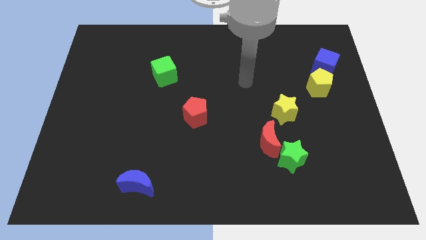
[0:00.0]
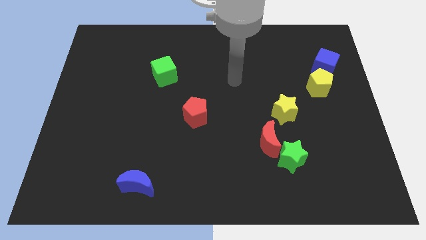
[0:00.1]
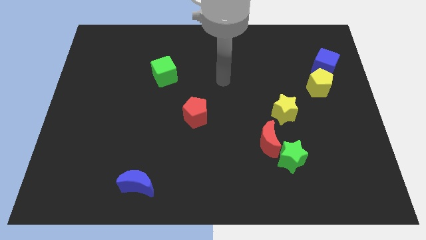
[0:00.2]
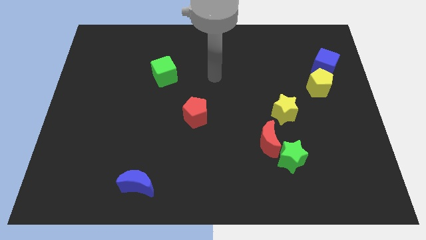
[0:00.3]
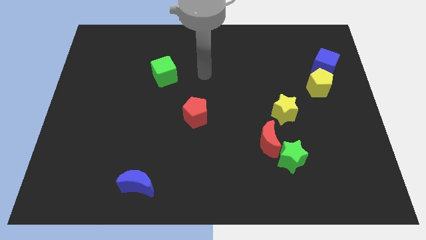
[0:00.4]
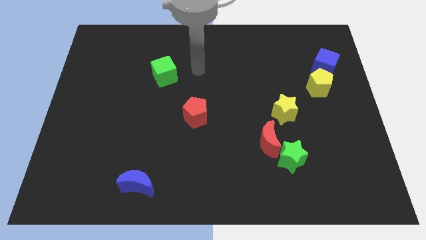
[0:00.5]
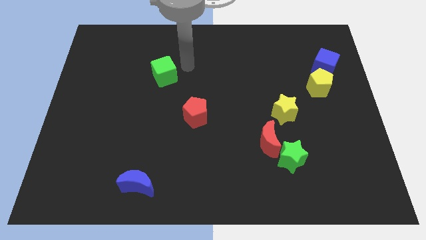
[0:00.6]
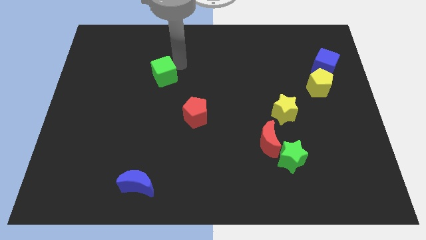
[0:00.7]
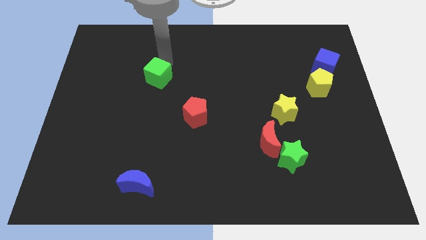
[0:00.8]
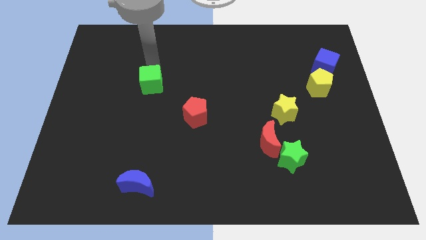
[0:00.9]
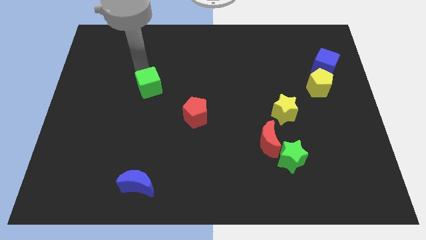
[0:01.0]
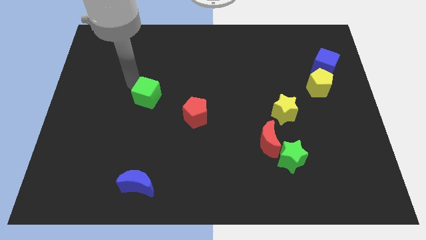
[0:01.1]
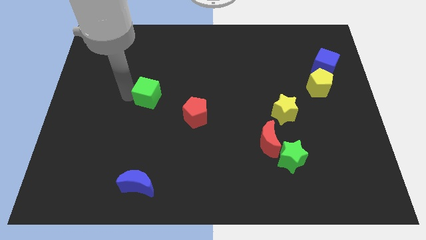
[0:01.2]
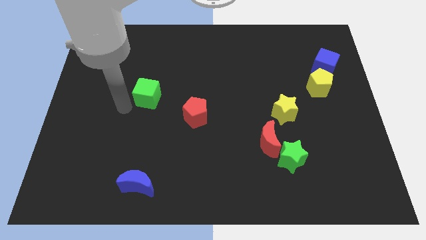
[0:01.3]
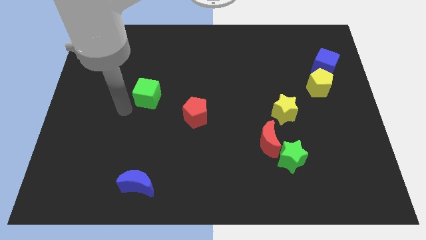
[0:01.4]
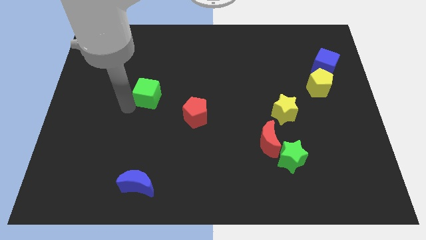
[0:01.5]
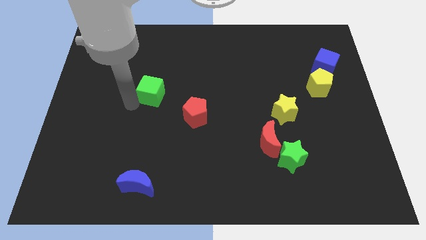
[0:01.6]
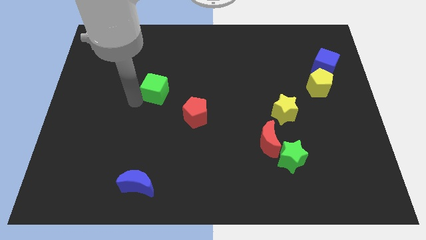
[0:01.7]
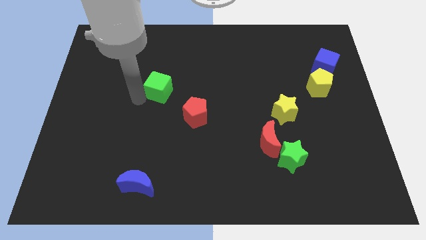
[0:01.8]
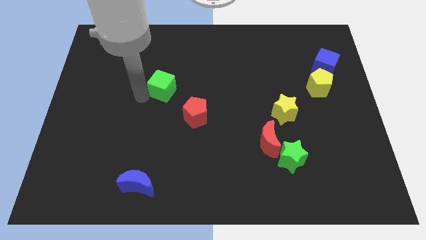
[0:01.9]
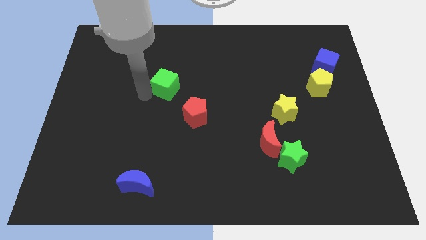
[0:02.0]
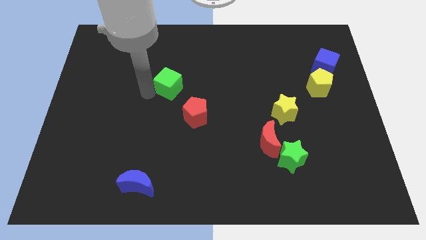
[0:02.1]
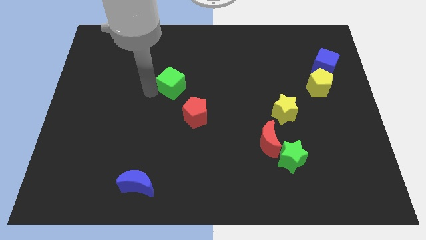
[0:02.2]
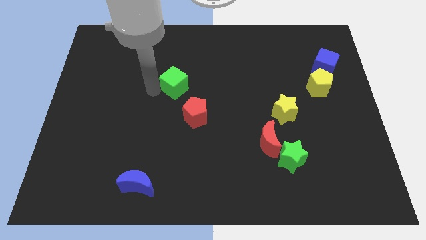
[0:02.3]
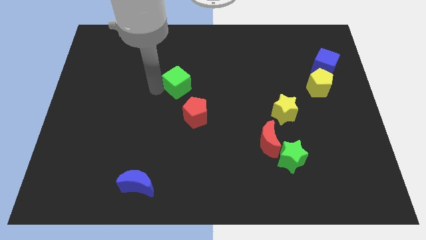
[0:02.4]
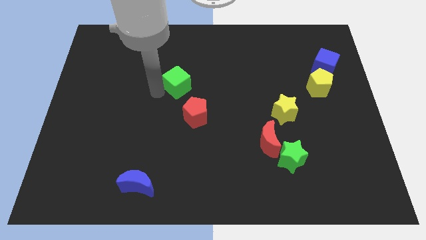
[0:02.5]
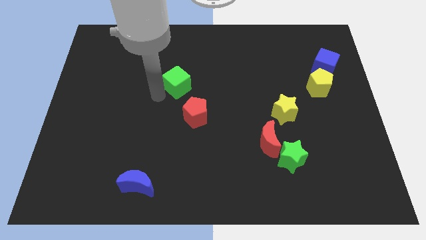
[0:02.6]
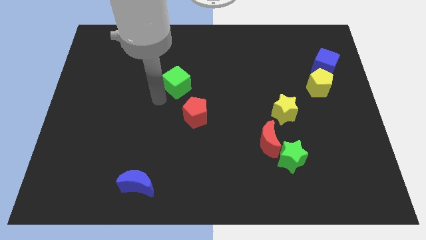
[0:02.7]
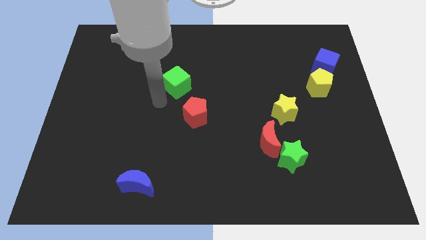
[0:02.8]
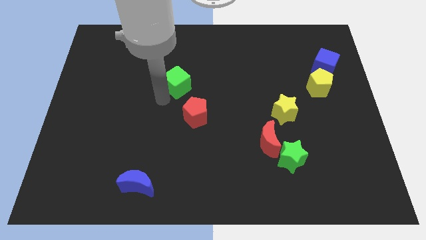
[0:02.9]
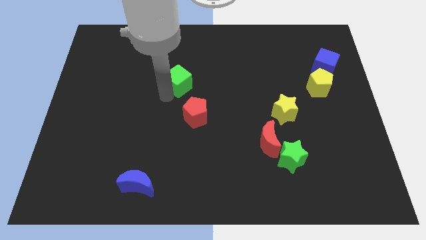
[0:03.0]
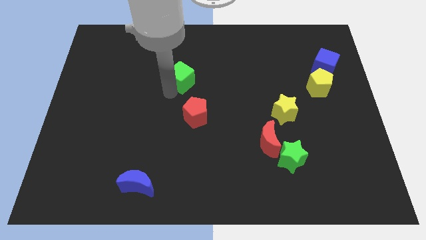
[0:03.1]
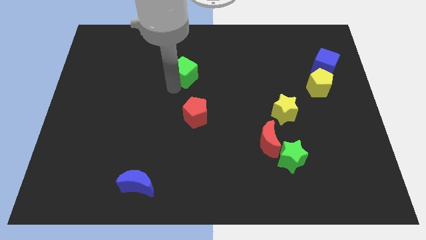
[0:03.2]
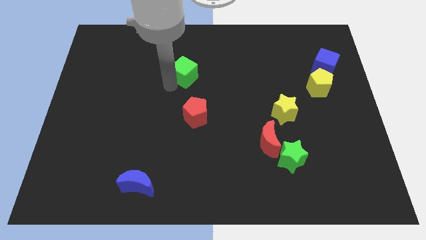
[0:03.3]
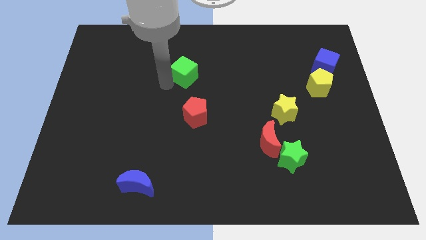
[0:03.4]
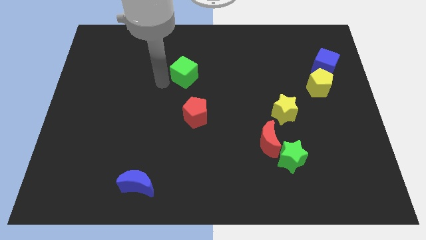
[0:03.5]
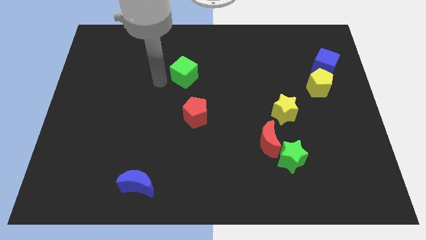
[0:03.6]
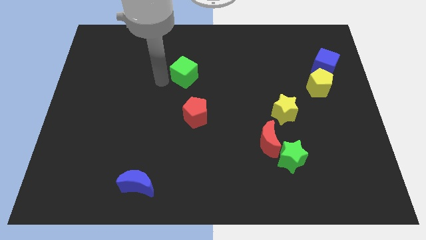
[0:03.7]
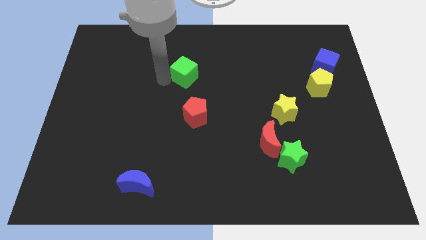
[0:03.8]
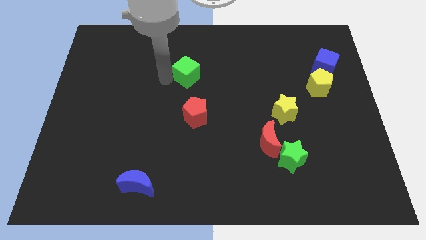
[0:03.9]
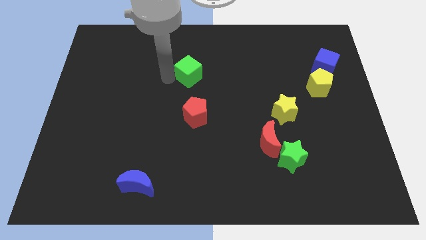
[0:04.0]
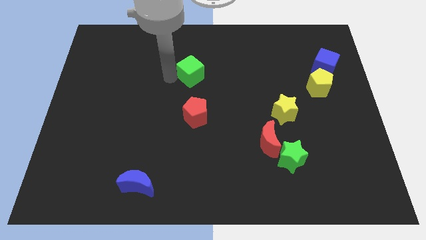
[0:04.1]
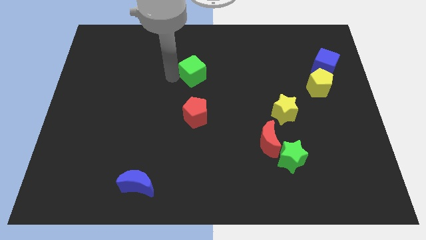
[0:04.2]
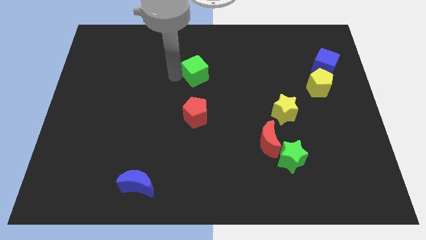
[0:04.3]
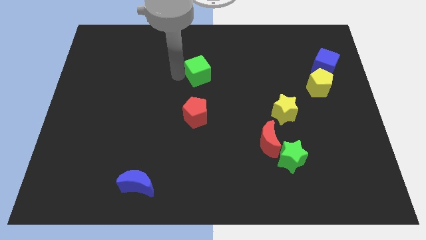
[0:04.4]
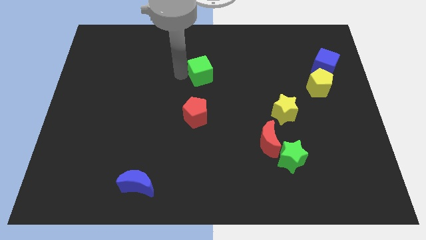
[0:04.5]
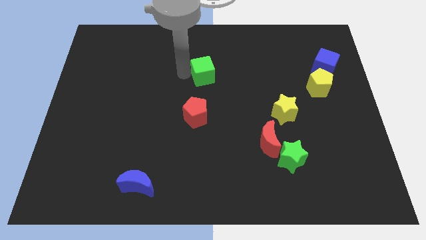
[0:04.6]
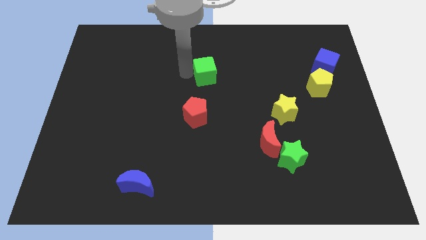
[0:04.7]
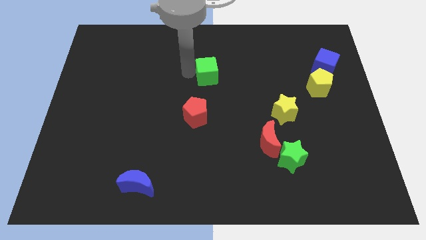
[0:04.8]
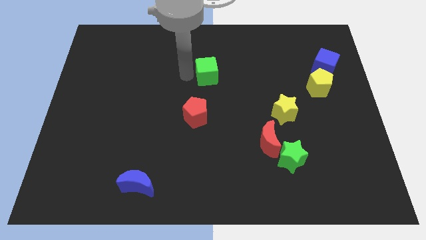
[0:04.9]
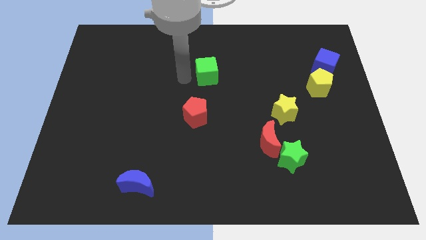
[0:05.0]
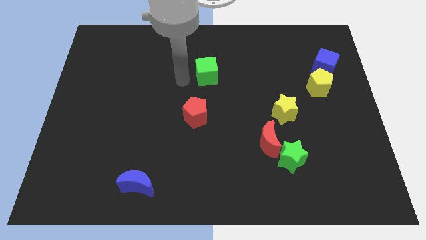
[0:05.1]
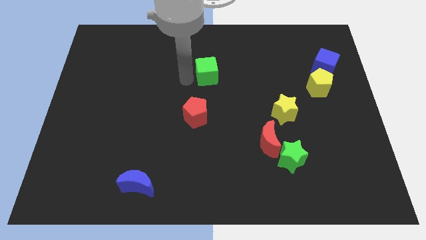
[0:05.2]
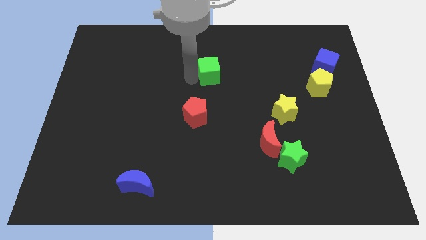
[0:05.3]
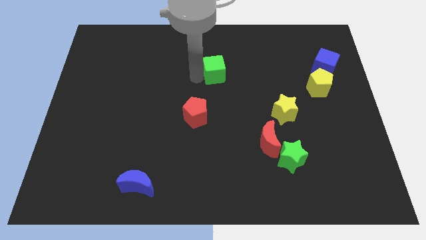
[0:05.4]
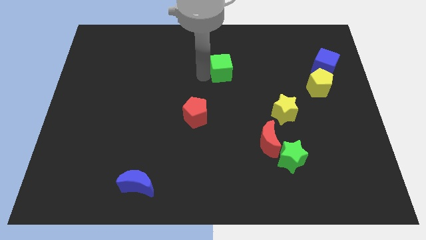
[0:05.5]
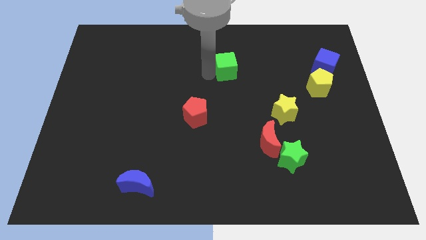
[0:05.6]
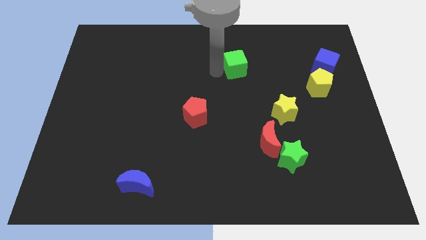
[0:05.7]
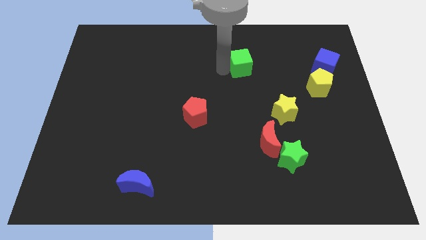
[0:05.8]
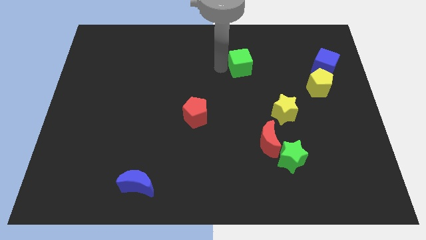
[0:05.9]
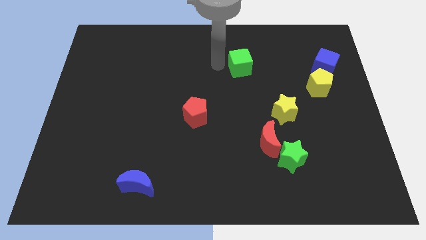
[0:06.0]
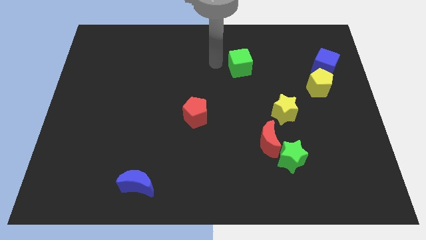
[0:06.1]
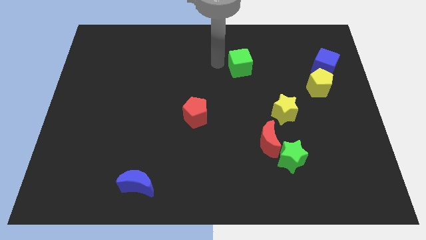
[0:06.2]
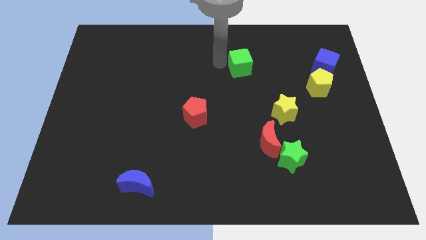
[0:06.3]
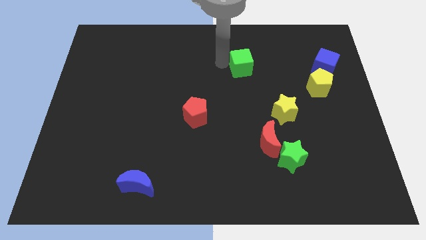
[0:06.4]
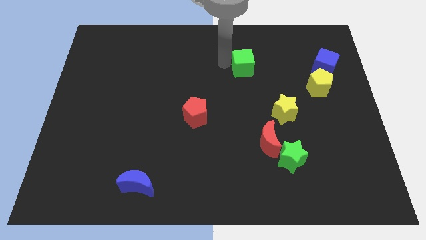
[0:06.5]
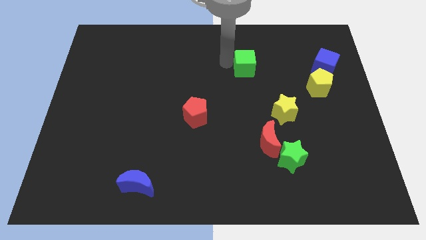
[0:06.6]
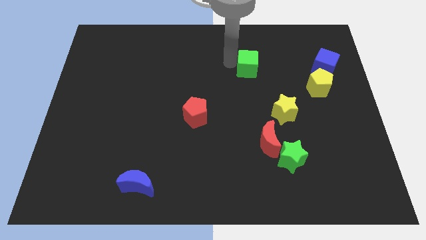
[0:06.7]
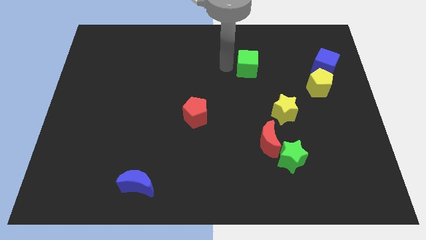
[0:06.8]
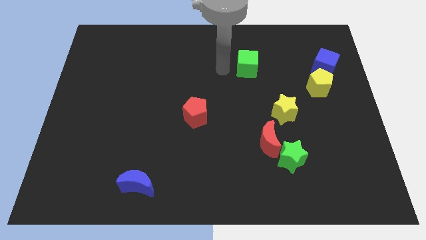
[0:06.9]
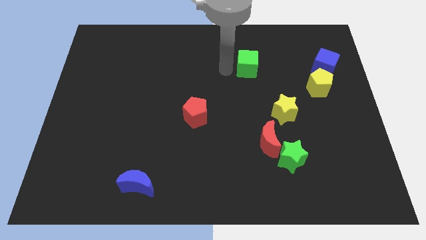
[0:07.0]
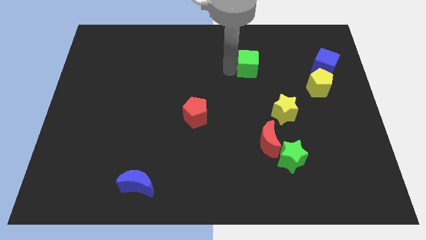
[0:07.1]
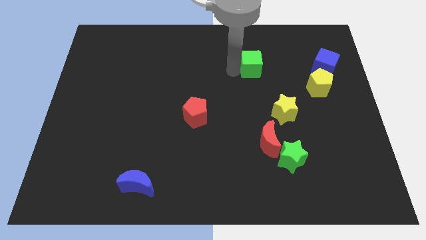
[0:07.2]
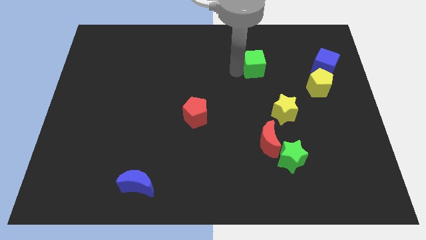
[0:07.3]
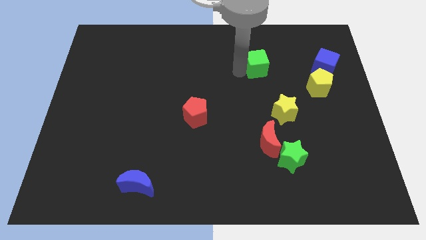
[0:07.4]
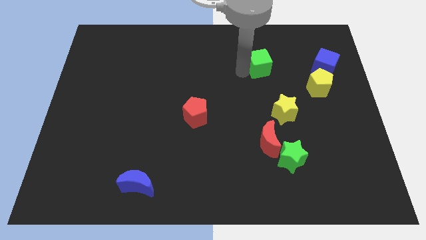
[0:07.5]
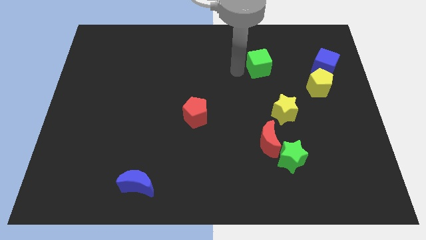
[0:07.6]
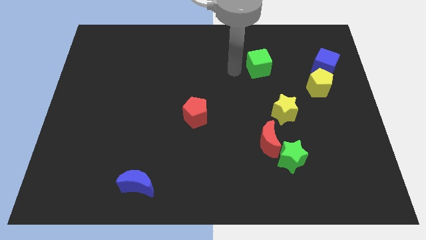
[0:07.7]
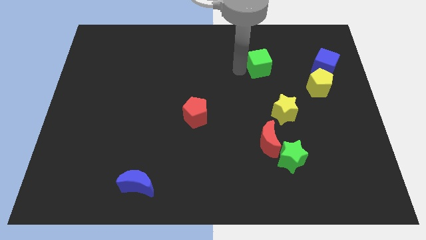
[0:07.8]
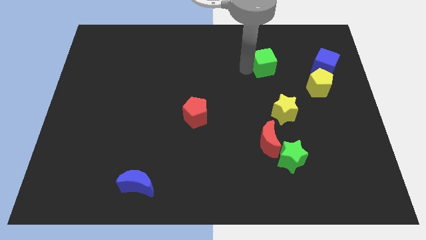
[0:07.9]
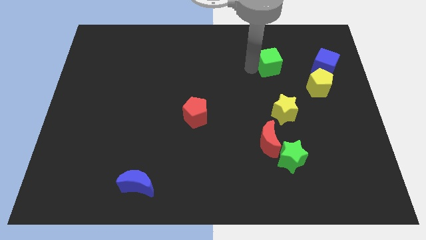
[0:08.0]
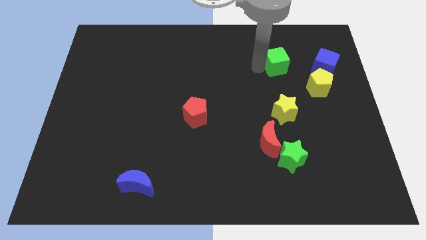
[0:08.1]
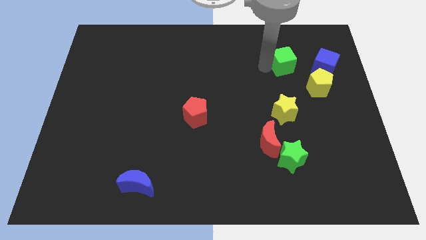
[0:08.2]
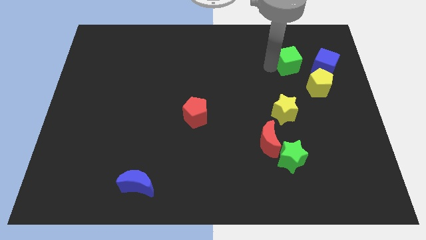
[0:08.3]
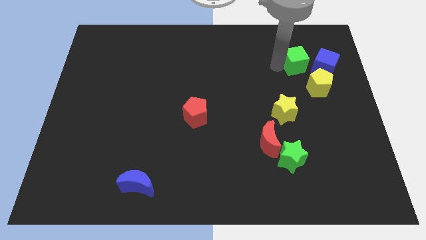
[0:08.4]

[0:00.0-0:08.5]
put the green cube to the top of the yellow pentagon
